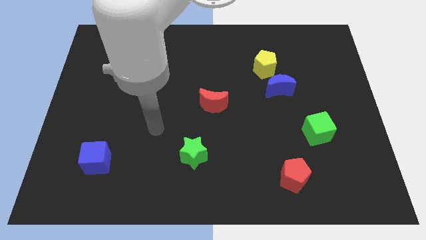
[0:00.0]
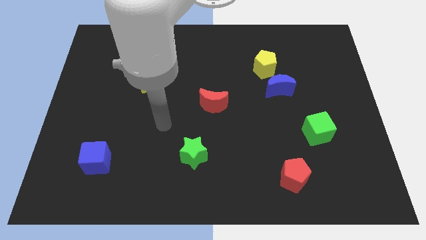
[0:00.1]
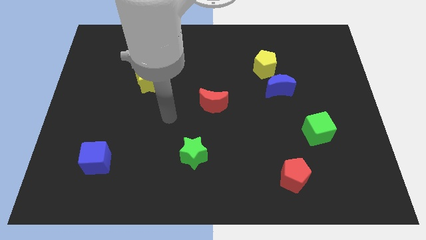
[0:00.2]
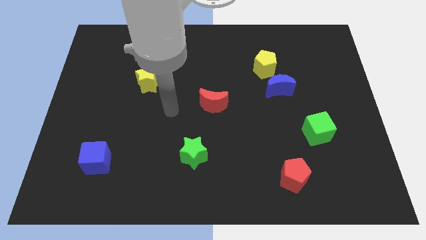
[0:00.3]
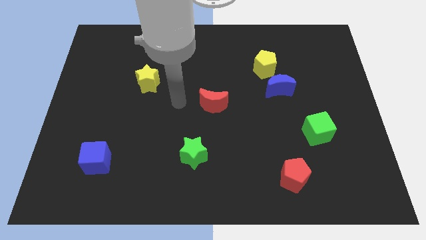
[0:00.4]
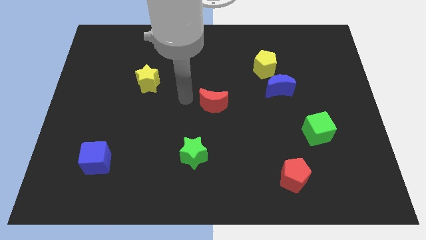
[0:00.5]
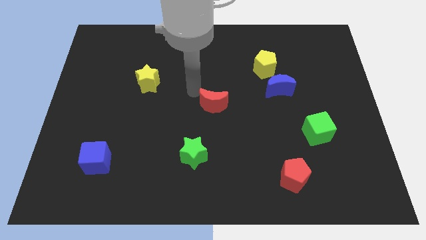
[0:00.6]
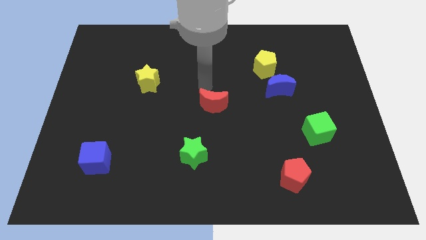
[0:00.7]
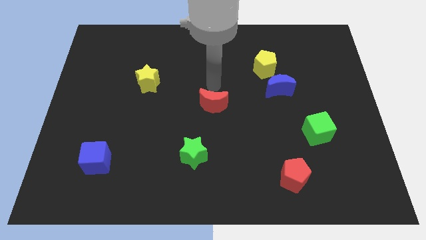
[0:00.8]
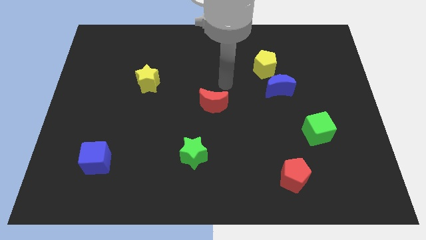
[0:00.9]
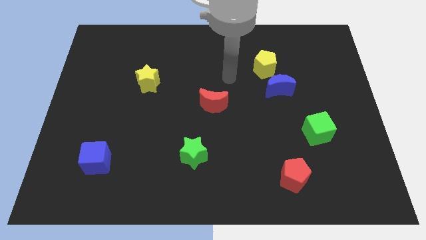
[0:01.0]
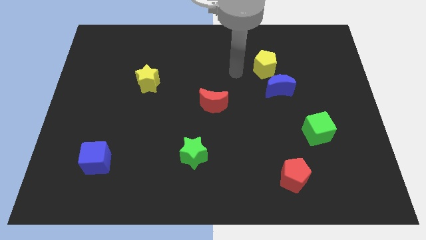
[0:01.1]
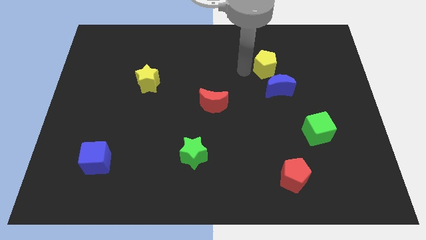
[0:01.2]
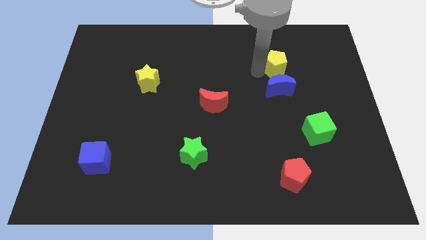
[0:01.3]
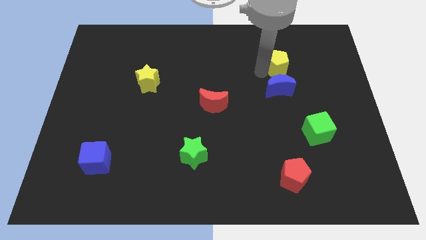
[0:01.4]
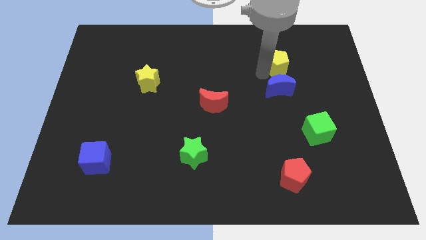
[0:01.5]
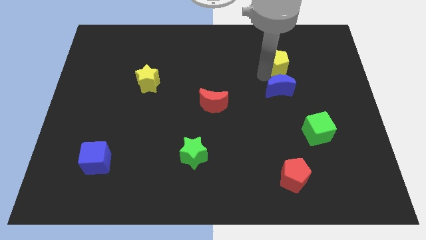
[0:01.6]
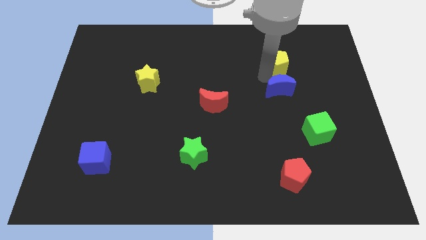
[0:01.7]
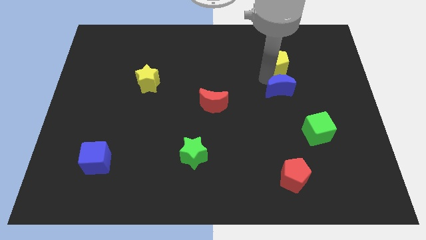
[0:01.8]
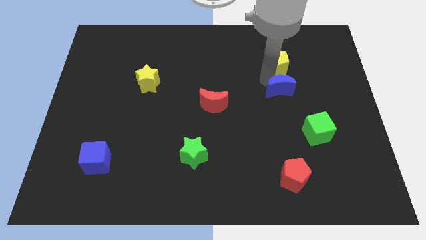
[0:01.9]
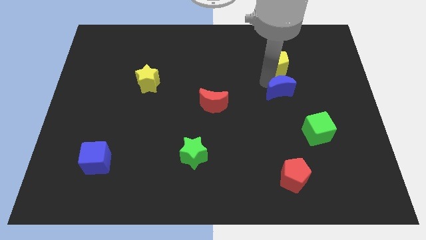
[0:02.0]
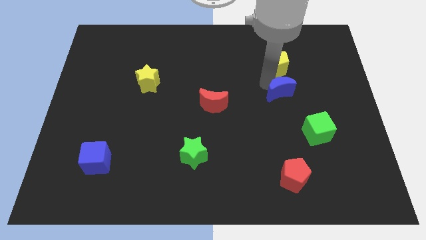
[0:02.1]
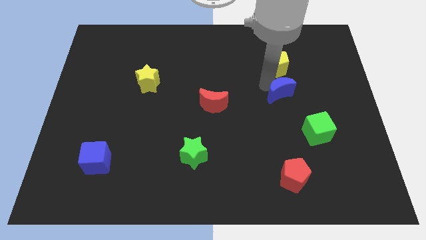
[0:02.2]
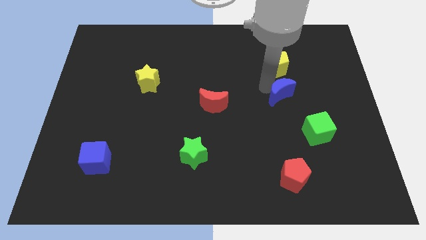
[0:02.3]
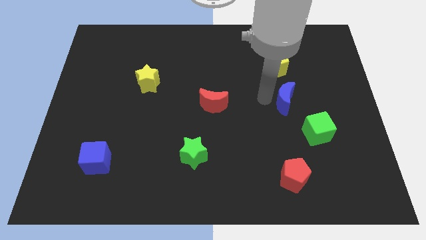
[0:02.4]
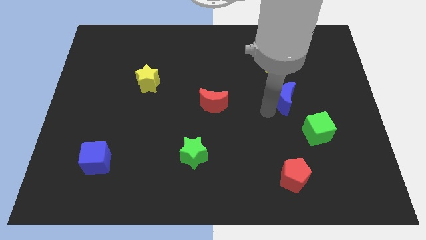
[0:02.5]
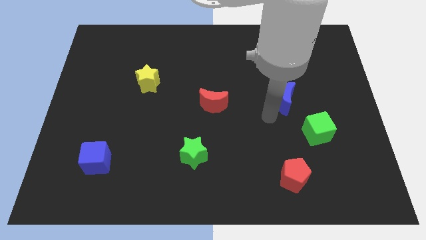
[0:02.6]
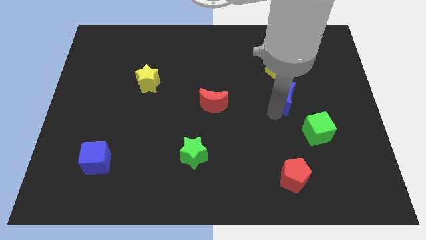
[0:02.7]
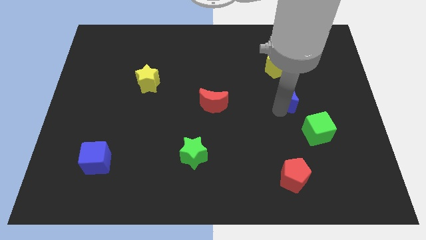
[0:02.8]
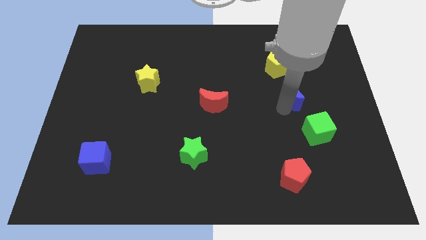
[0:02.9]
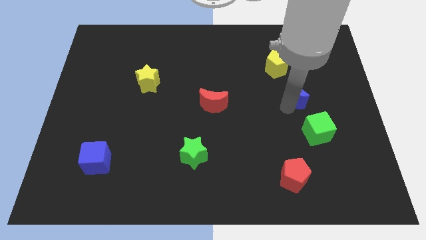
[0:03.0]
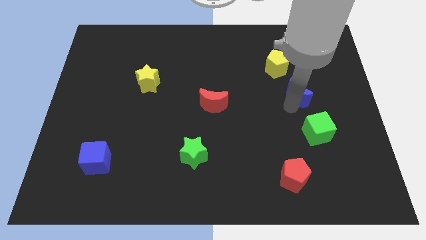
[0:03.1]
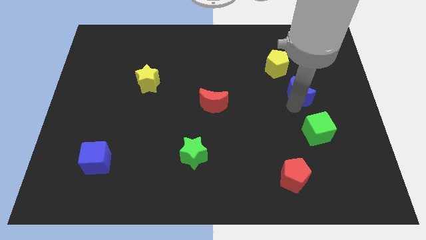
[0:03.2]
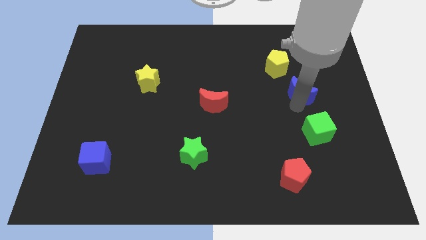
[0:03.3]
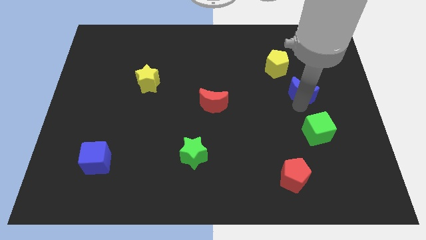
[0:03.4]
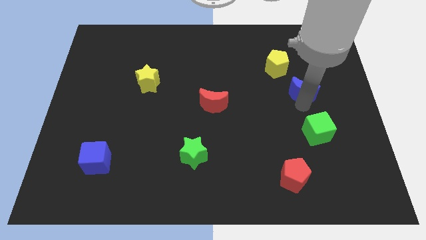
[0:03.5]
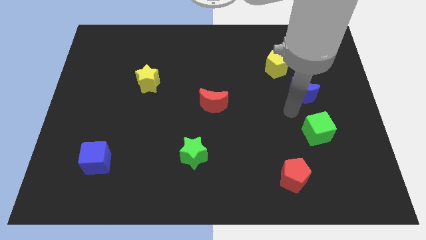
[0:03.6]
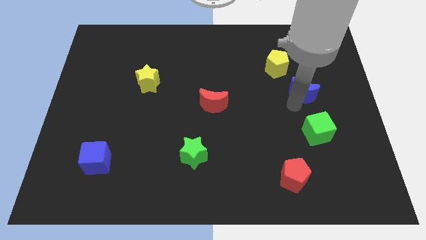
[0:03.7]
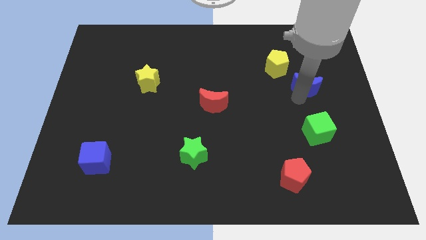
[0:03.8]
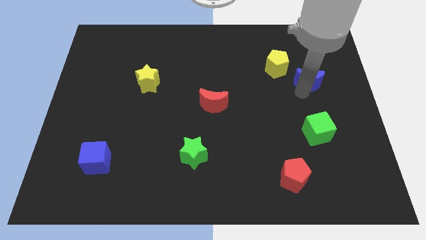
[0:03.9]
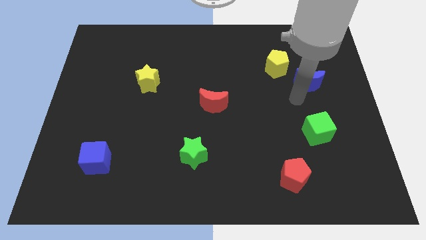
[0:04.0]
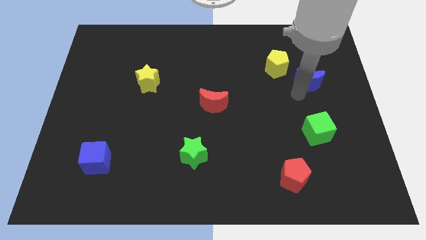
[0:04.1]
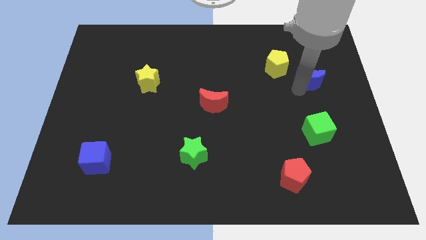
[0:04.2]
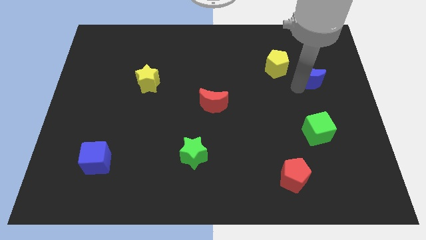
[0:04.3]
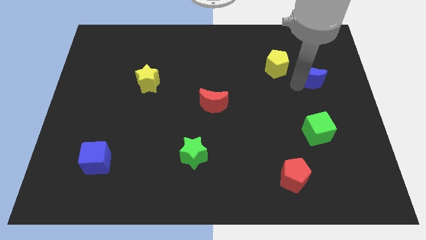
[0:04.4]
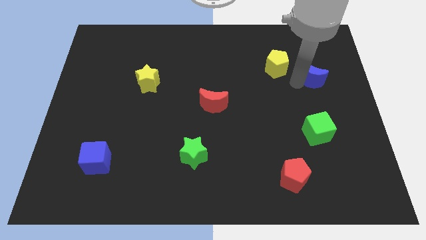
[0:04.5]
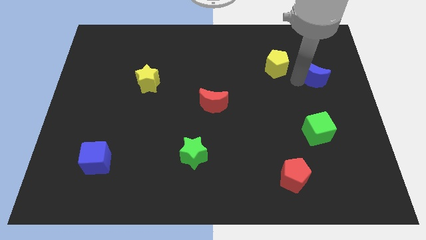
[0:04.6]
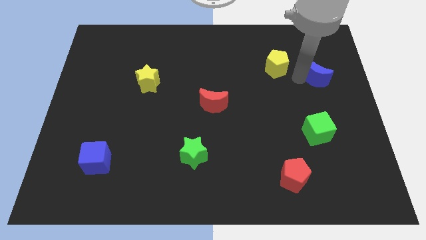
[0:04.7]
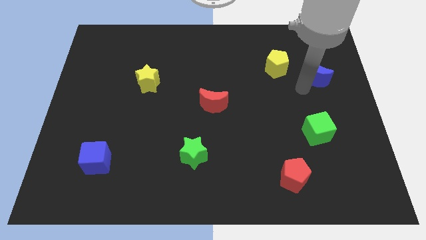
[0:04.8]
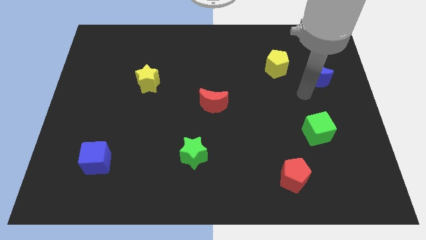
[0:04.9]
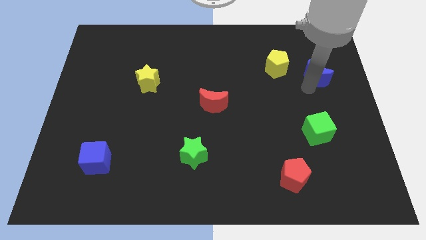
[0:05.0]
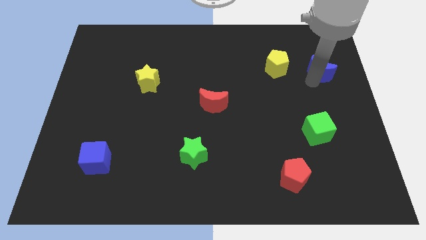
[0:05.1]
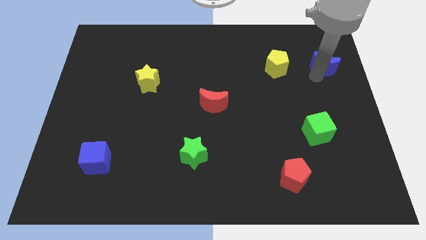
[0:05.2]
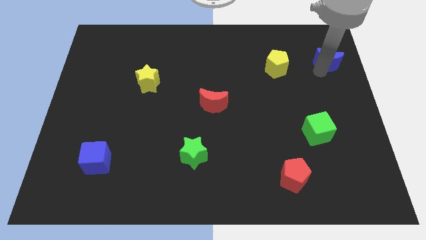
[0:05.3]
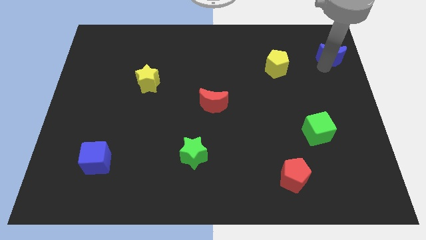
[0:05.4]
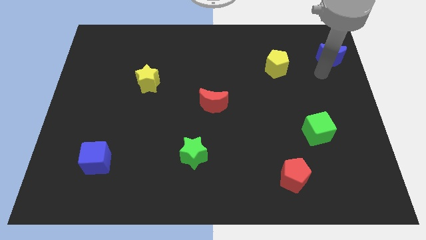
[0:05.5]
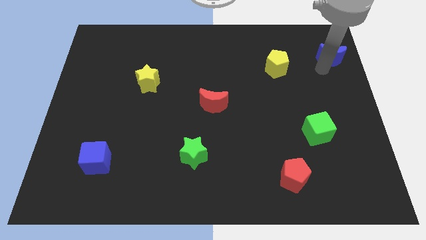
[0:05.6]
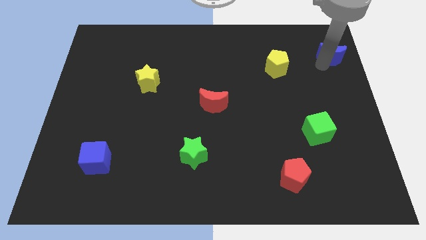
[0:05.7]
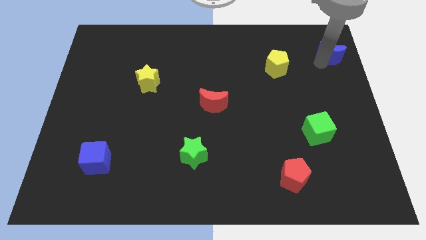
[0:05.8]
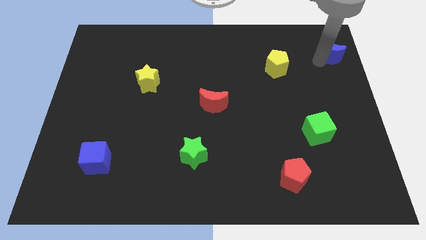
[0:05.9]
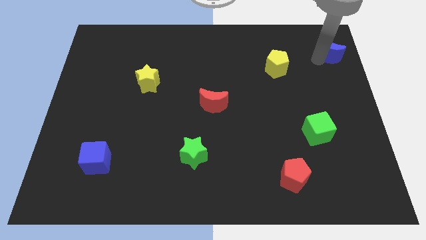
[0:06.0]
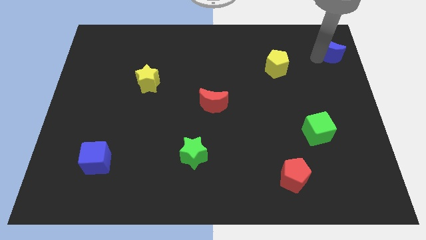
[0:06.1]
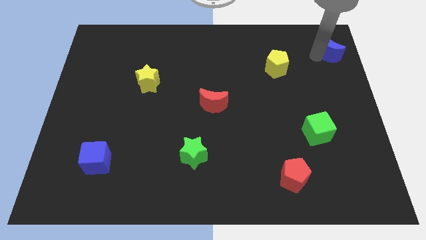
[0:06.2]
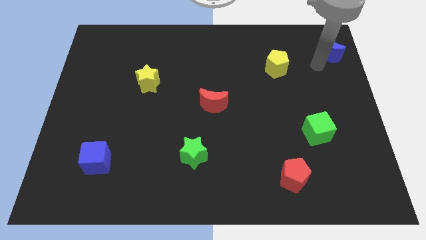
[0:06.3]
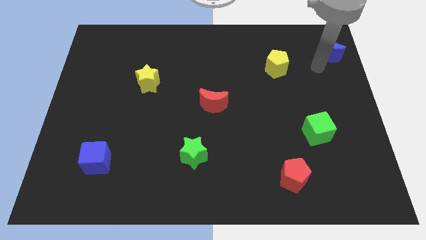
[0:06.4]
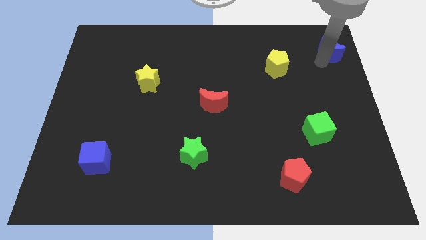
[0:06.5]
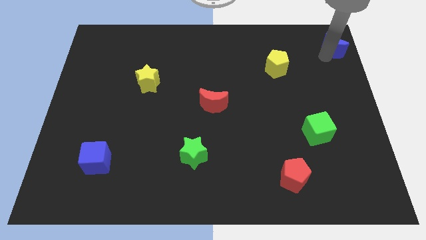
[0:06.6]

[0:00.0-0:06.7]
put the blue moon to the top right

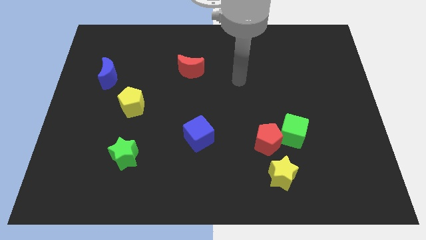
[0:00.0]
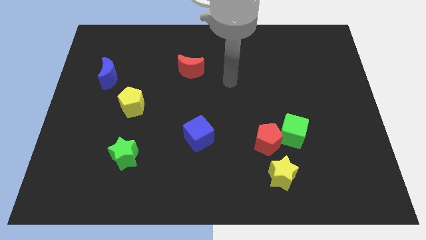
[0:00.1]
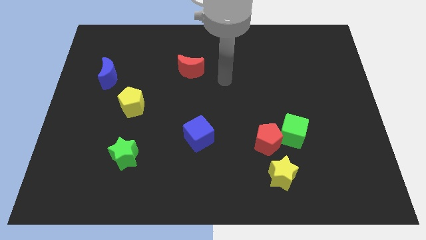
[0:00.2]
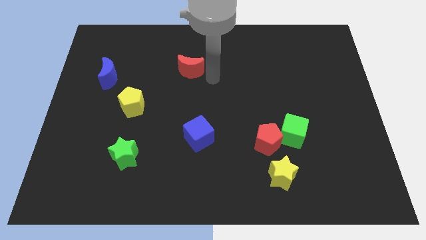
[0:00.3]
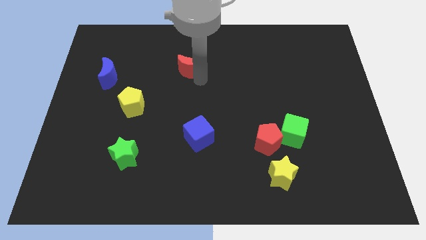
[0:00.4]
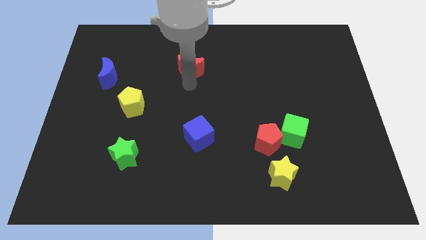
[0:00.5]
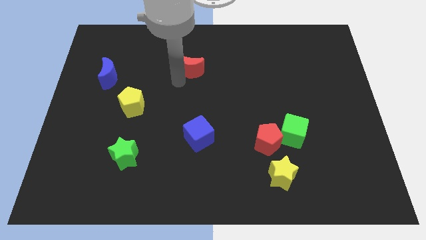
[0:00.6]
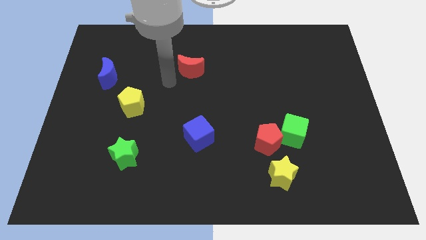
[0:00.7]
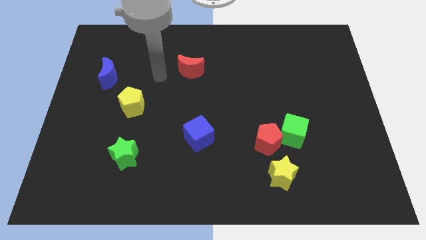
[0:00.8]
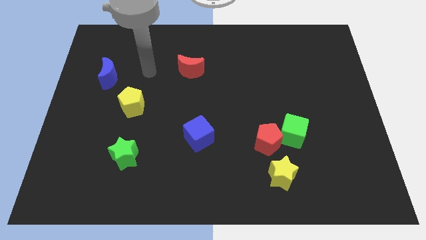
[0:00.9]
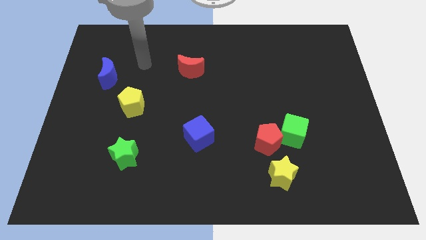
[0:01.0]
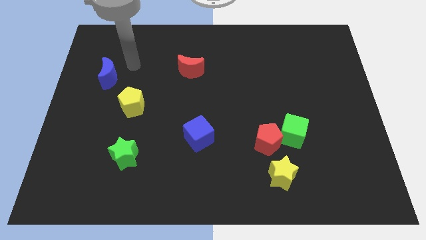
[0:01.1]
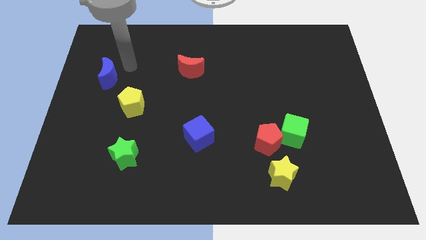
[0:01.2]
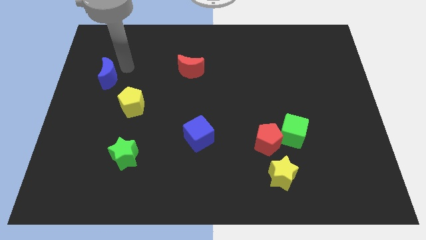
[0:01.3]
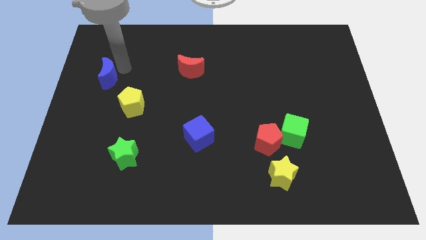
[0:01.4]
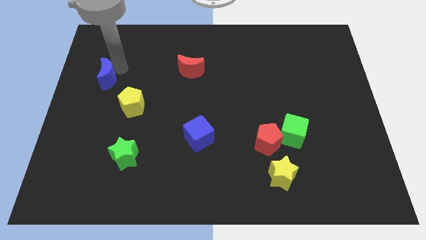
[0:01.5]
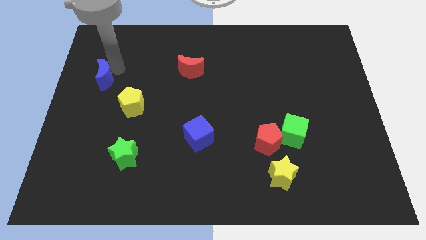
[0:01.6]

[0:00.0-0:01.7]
move the blue moon to the center left
